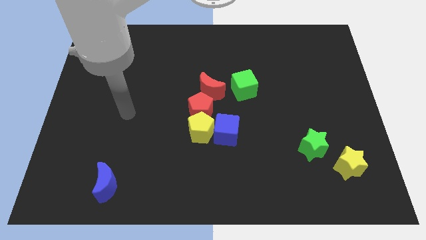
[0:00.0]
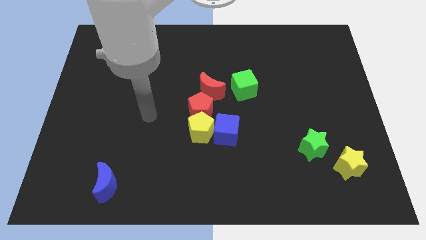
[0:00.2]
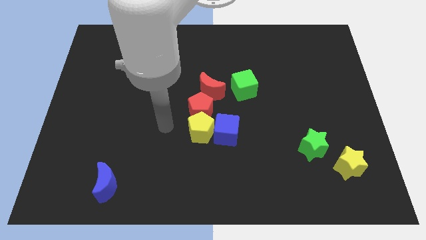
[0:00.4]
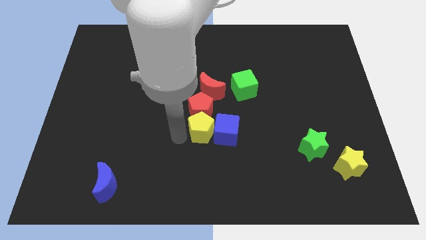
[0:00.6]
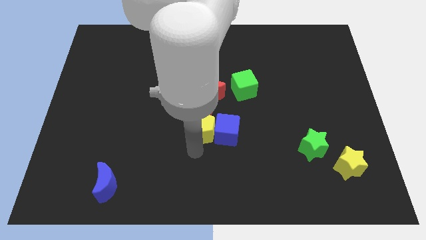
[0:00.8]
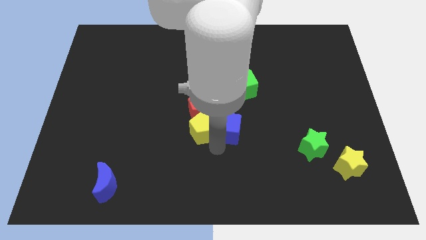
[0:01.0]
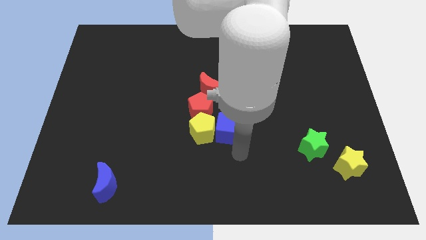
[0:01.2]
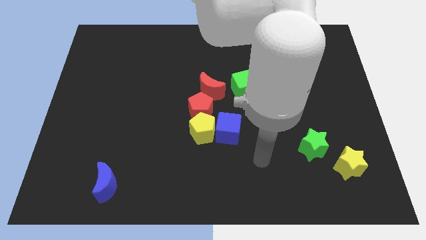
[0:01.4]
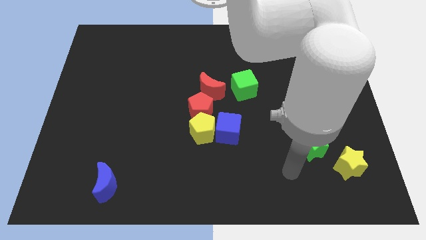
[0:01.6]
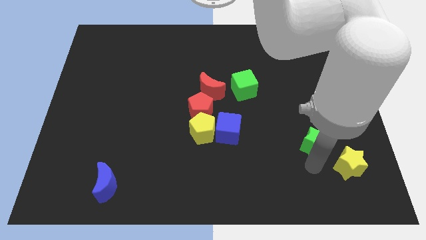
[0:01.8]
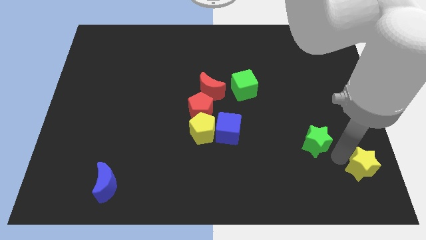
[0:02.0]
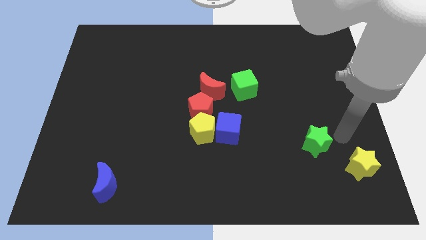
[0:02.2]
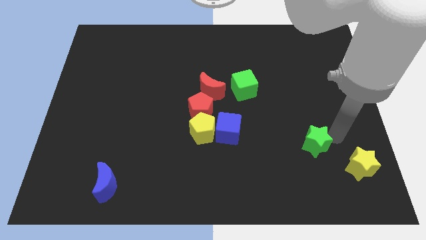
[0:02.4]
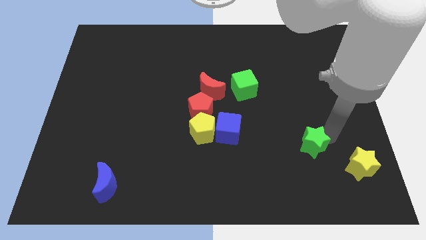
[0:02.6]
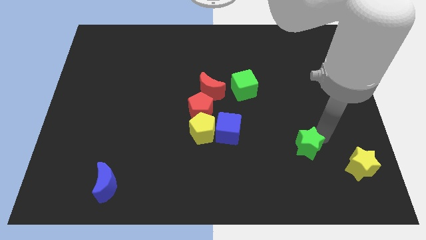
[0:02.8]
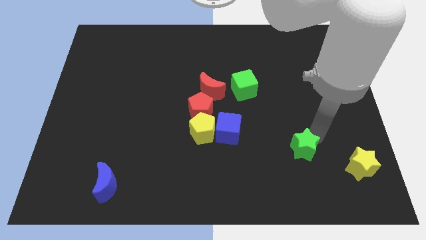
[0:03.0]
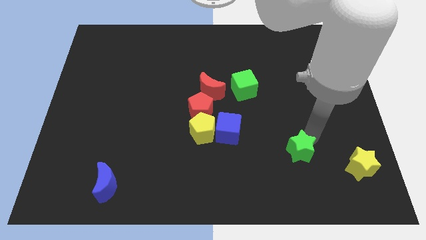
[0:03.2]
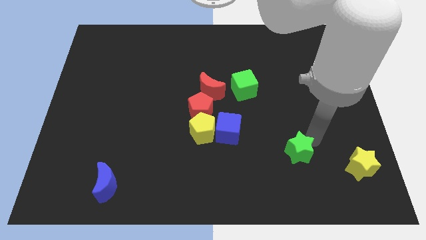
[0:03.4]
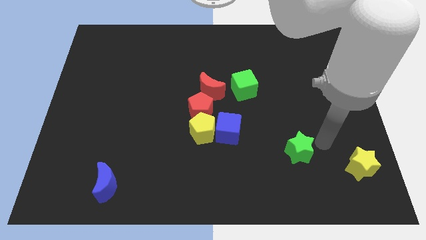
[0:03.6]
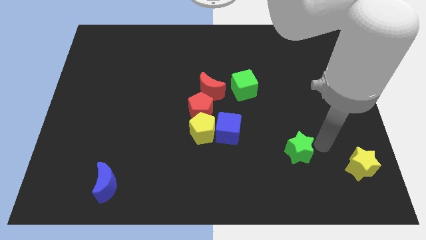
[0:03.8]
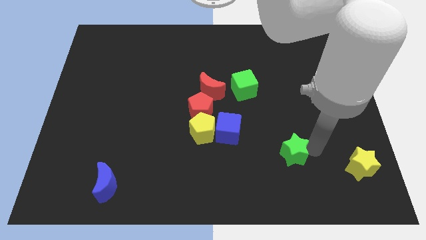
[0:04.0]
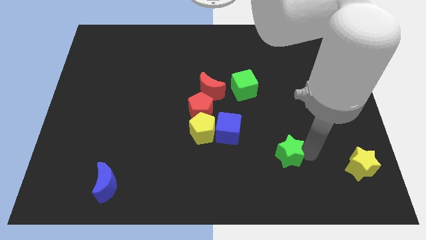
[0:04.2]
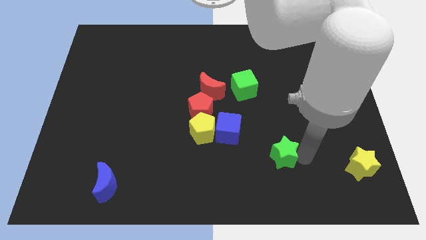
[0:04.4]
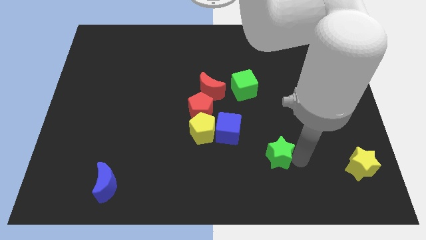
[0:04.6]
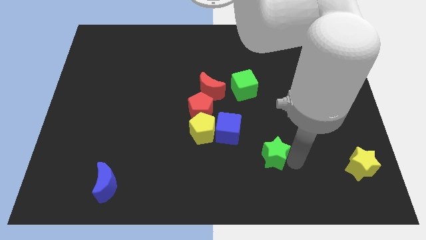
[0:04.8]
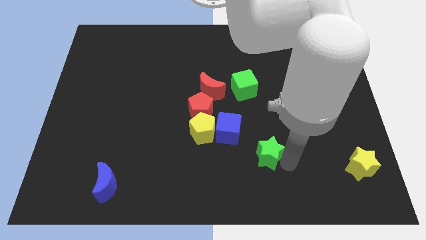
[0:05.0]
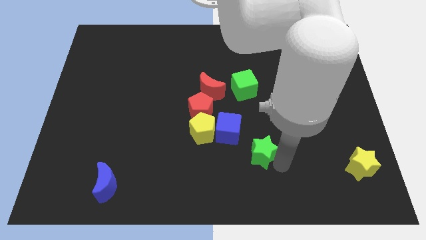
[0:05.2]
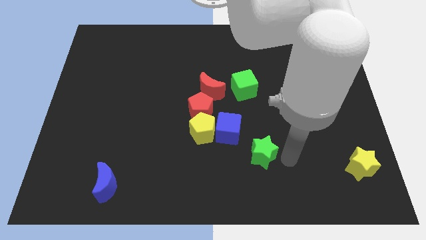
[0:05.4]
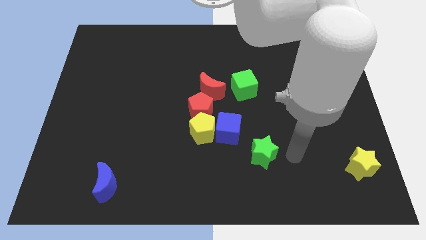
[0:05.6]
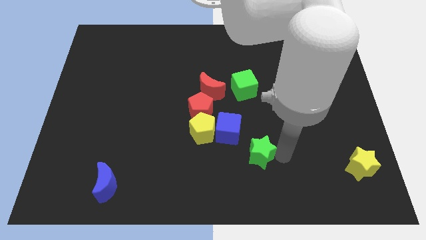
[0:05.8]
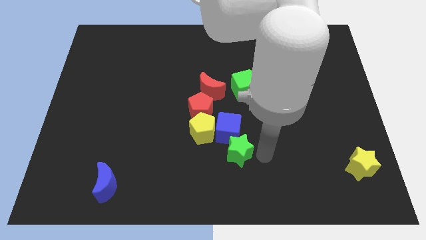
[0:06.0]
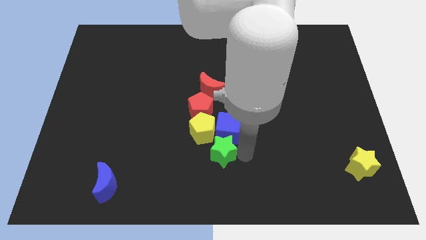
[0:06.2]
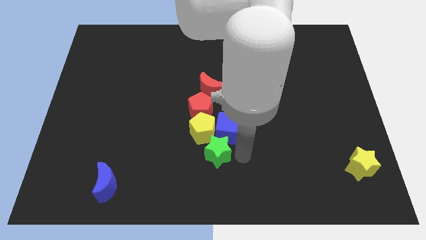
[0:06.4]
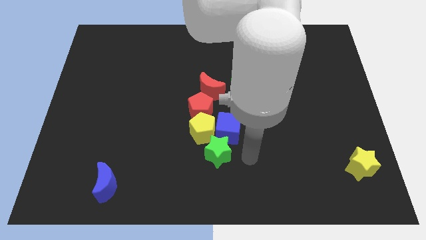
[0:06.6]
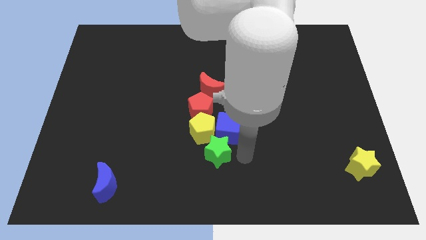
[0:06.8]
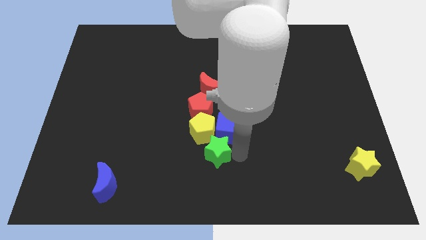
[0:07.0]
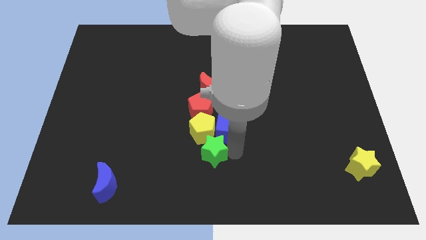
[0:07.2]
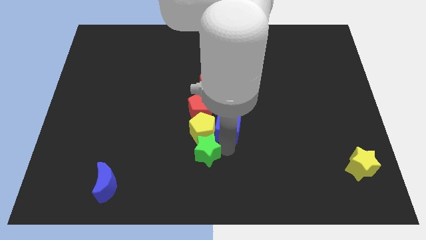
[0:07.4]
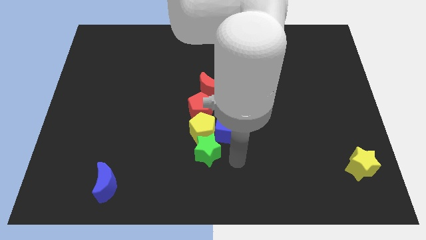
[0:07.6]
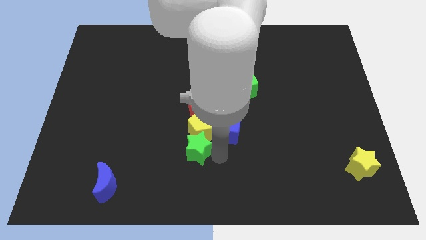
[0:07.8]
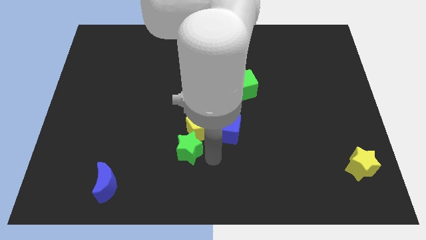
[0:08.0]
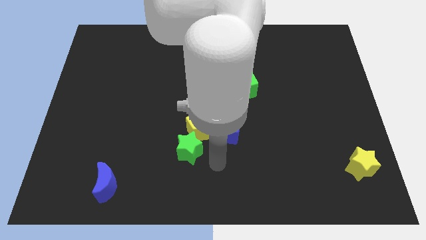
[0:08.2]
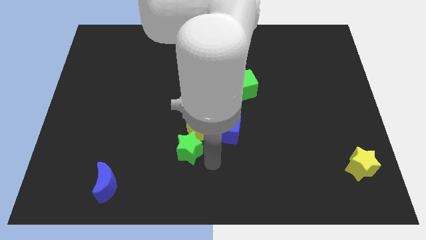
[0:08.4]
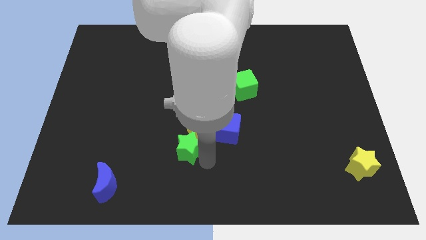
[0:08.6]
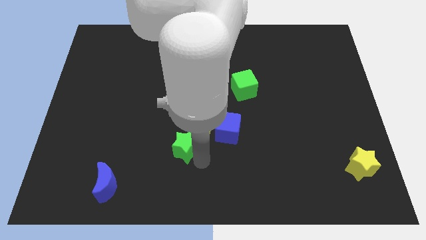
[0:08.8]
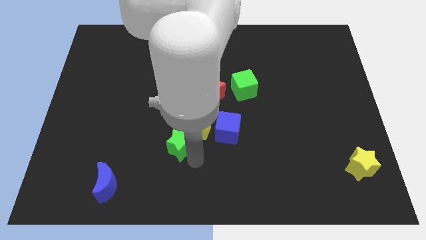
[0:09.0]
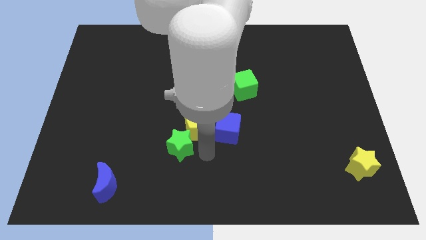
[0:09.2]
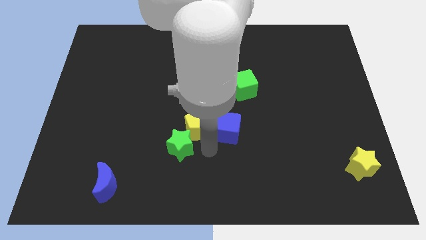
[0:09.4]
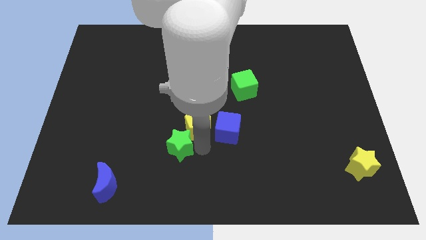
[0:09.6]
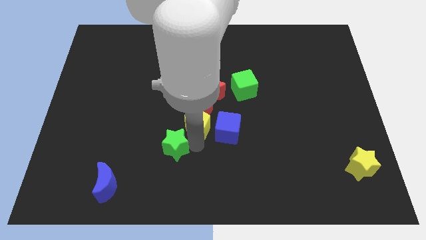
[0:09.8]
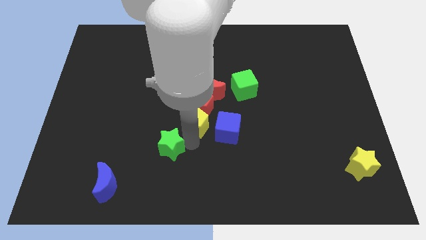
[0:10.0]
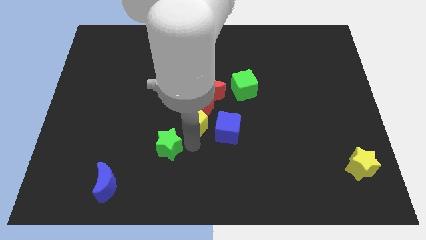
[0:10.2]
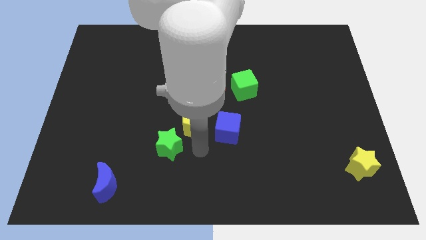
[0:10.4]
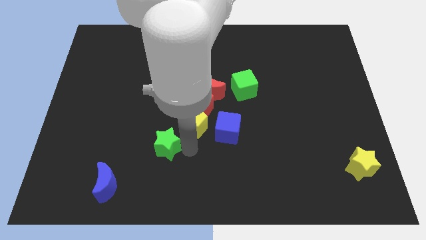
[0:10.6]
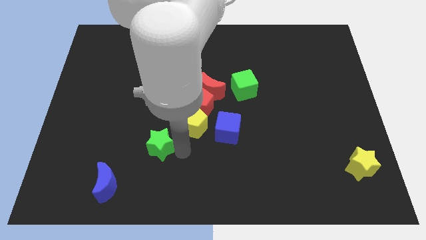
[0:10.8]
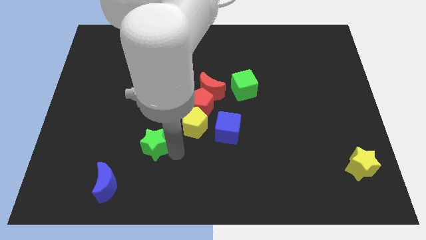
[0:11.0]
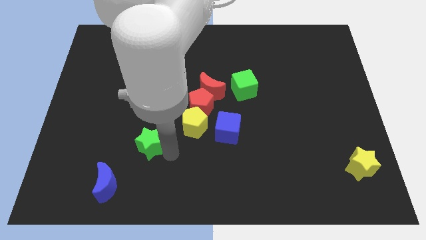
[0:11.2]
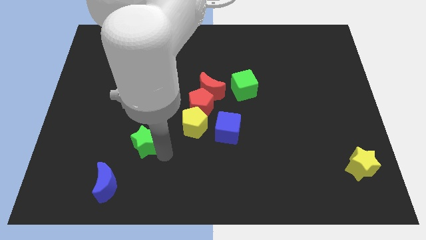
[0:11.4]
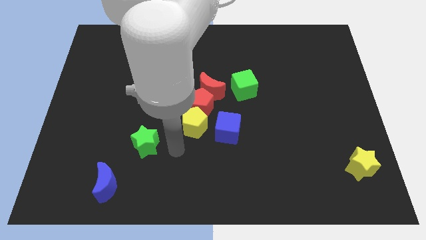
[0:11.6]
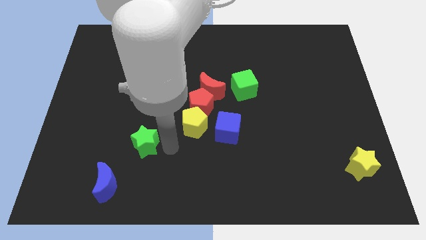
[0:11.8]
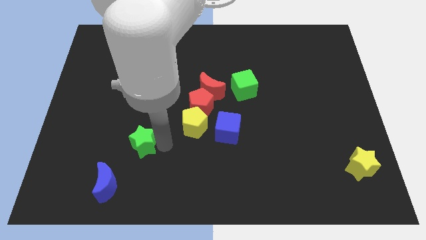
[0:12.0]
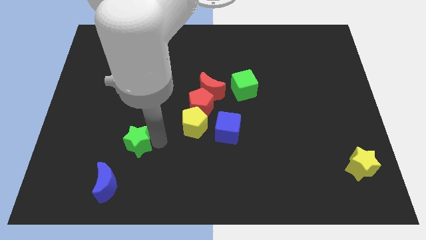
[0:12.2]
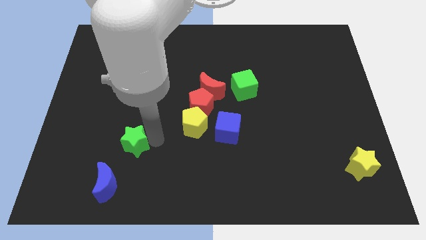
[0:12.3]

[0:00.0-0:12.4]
push the green star above the blue moon
